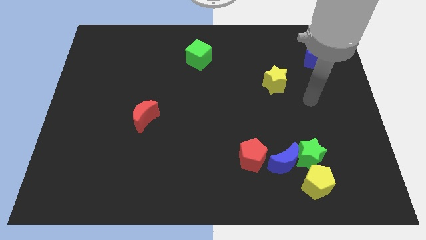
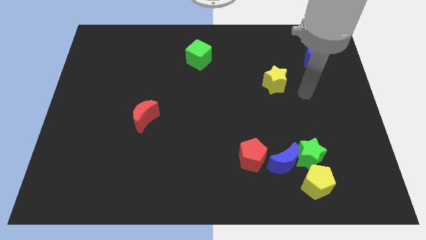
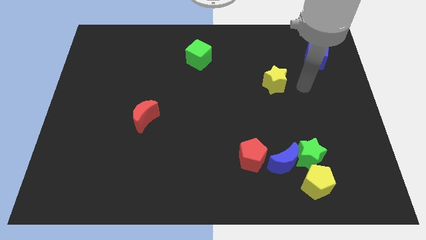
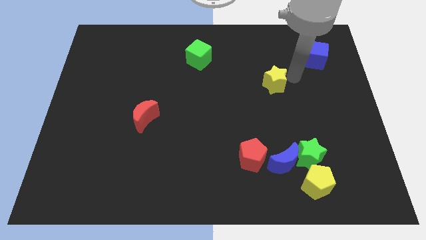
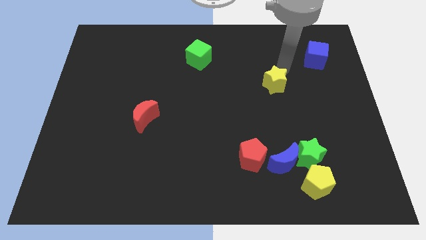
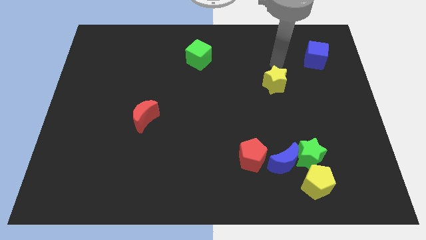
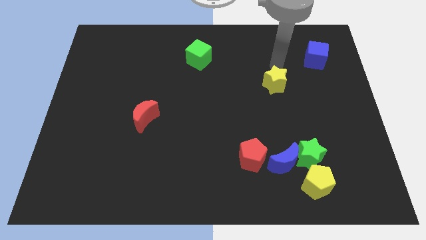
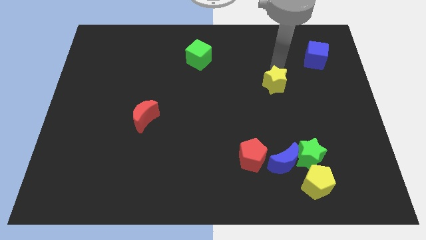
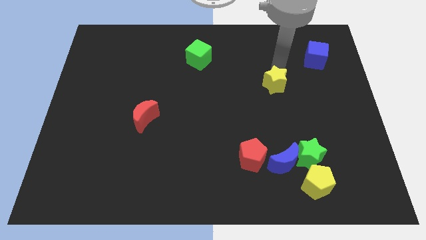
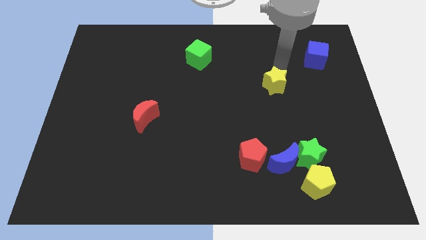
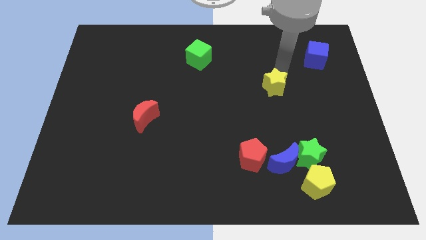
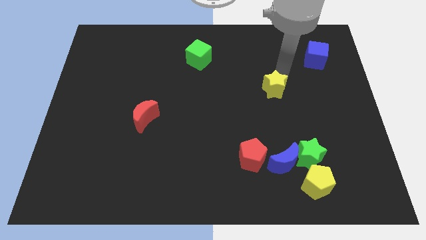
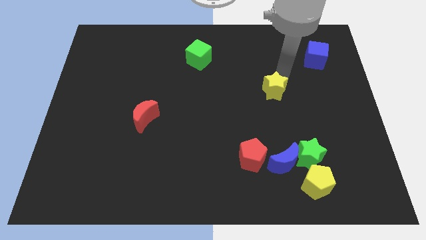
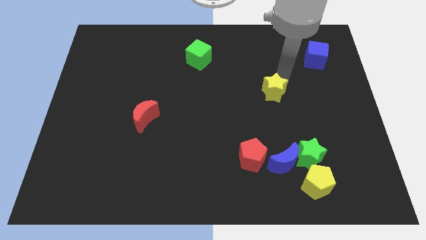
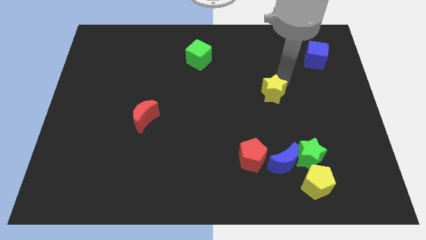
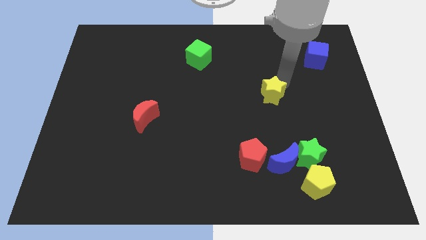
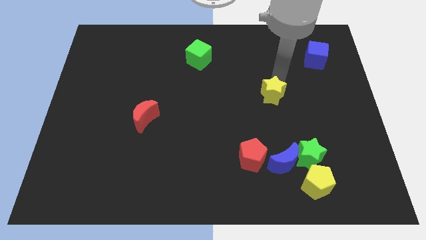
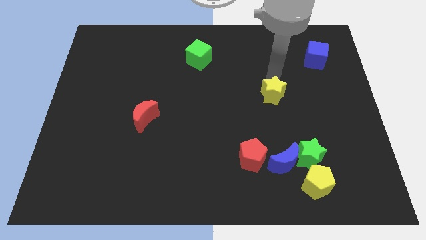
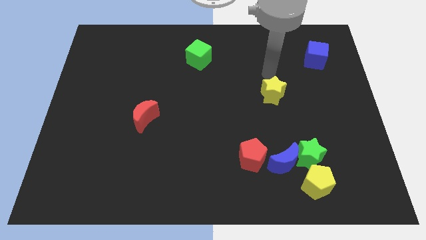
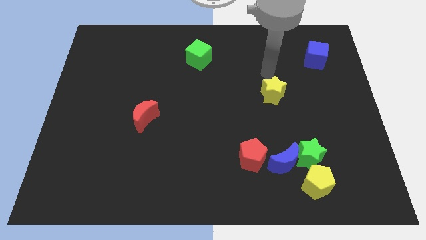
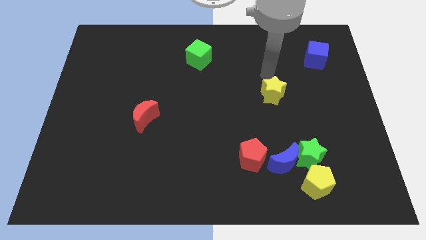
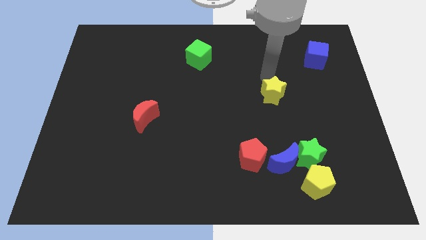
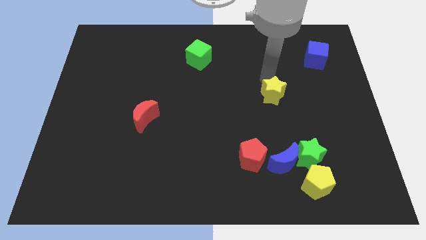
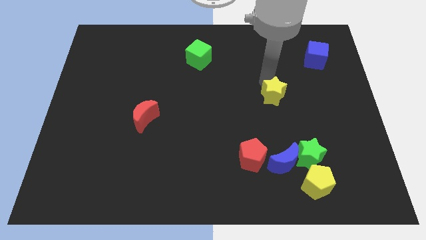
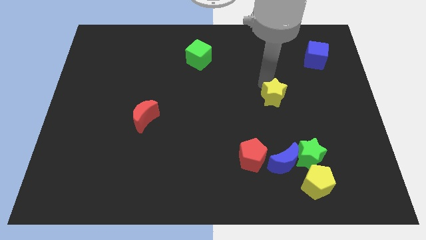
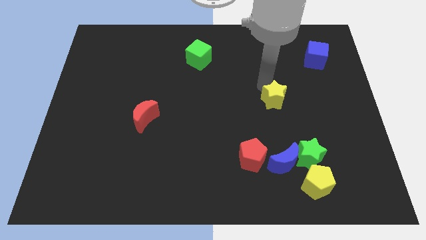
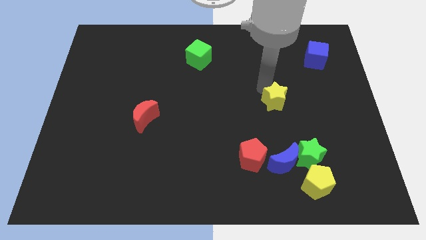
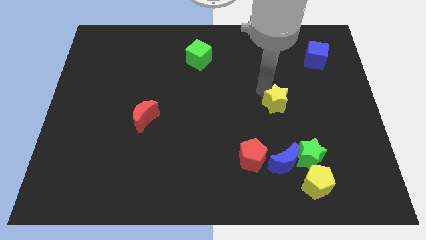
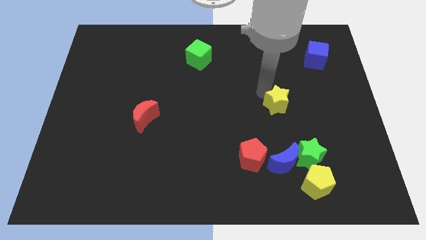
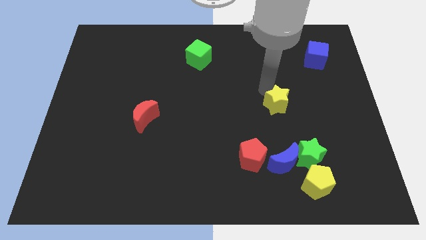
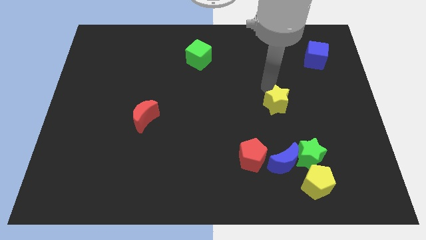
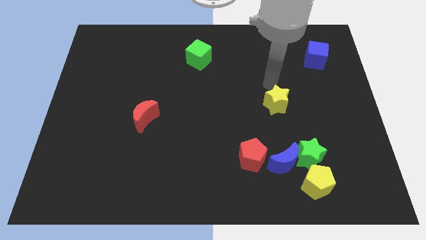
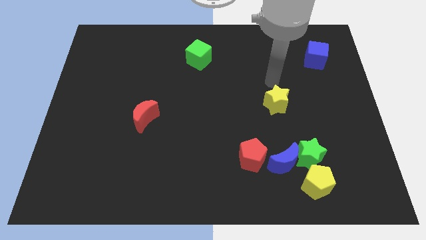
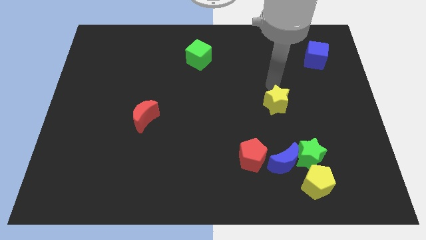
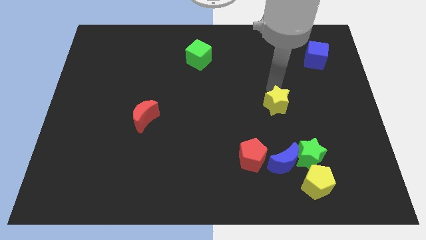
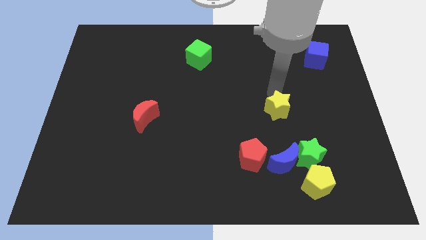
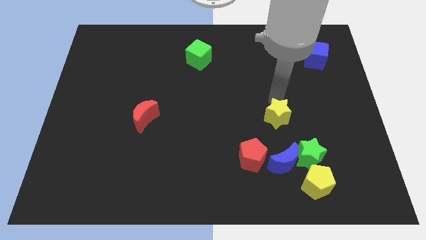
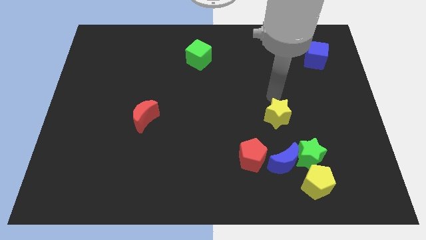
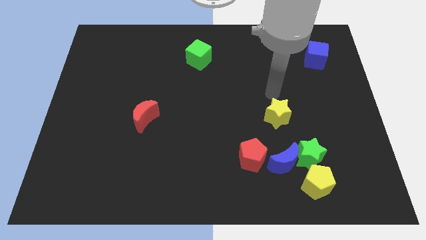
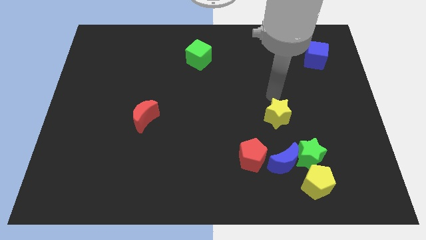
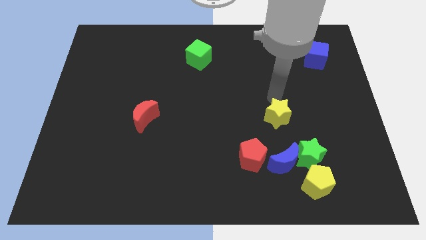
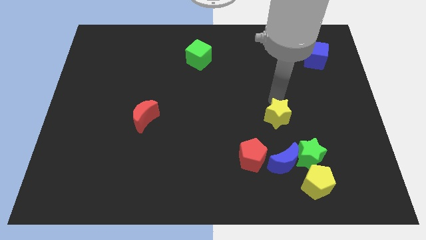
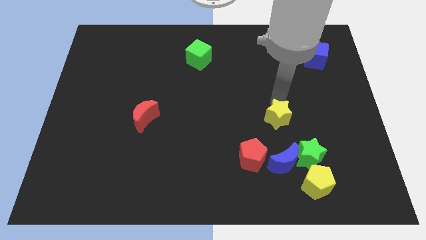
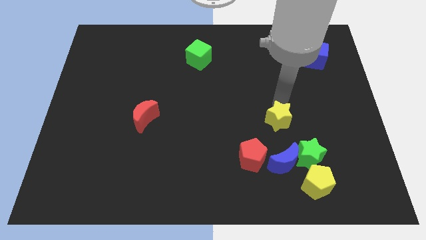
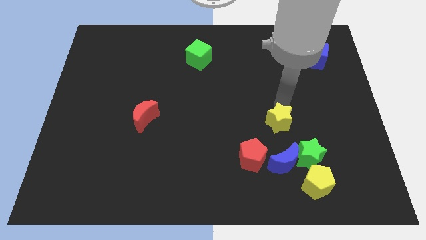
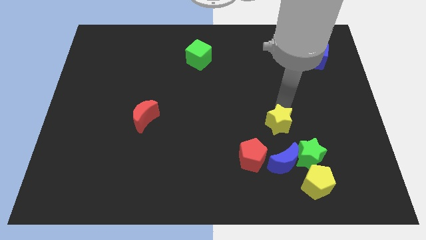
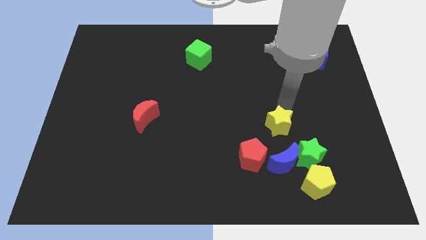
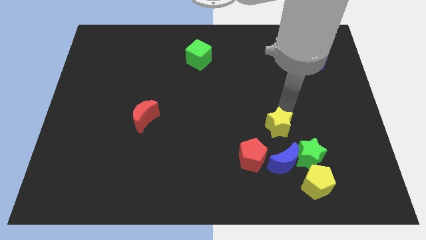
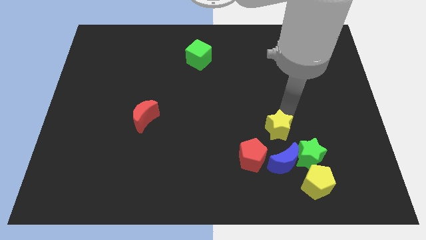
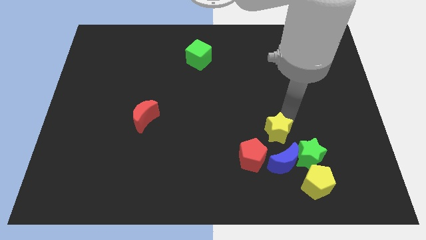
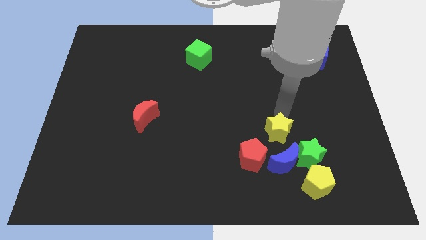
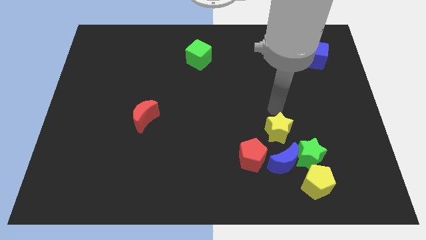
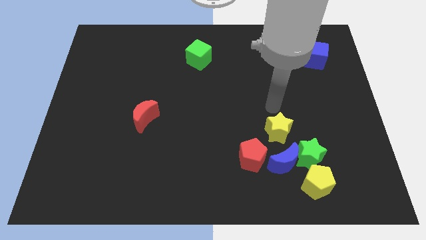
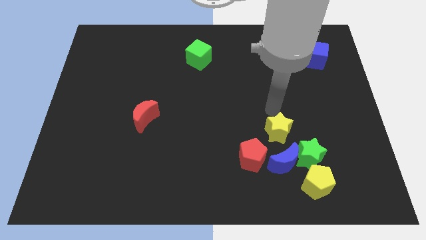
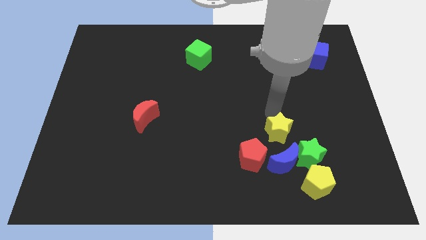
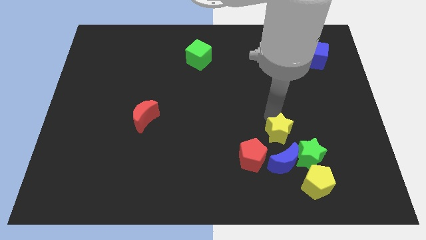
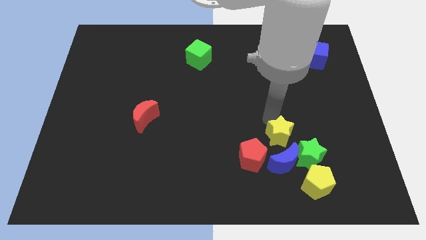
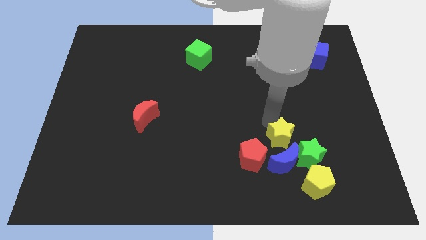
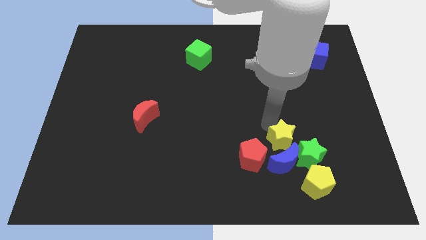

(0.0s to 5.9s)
push the yellow star next to the blue moon

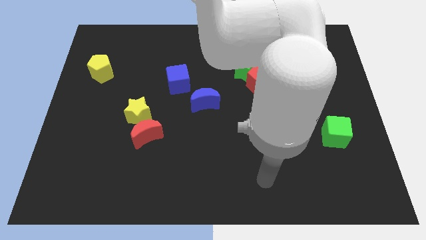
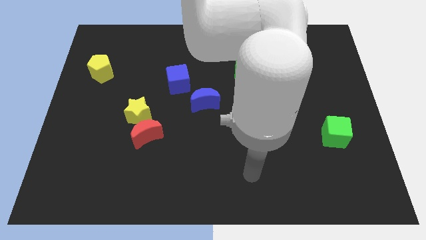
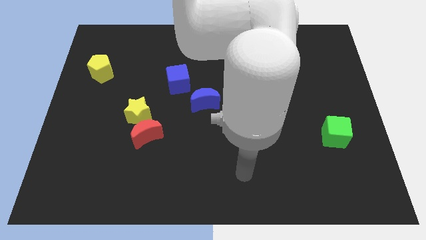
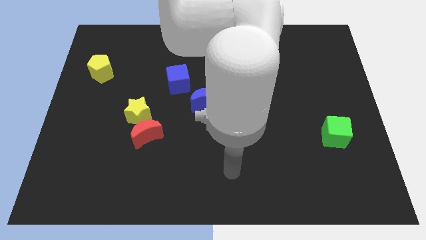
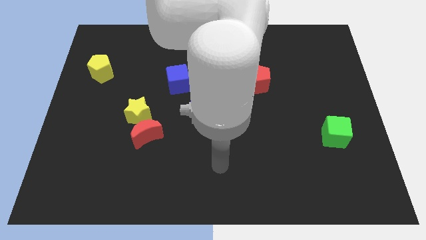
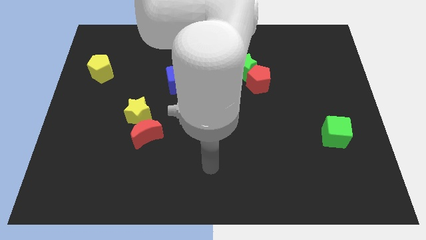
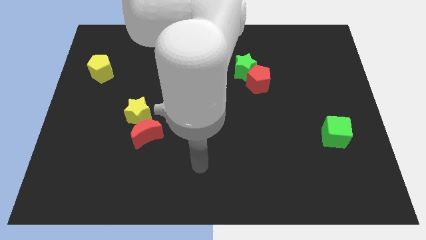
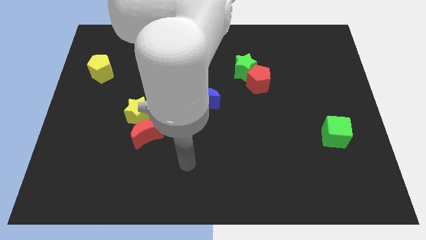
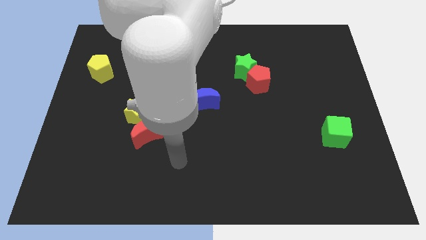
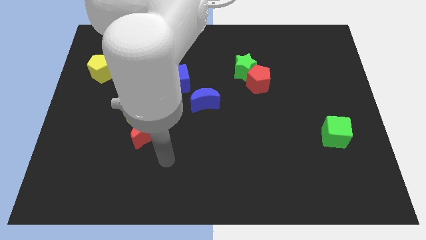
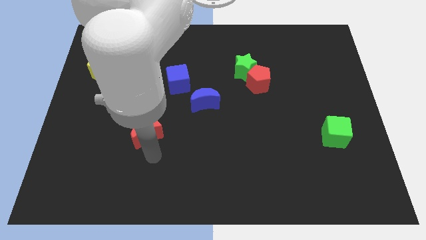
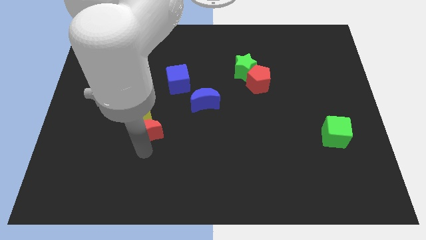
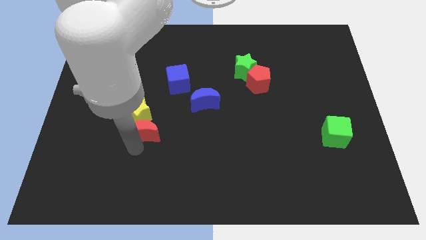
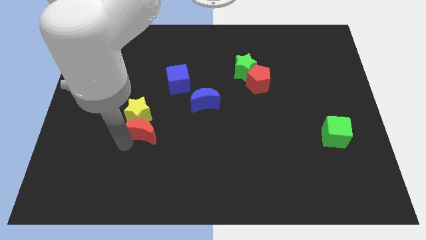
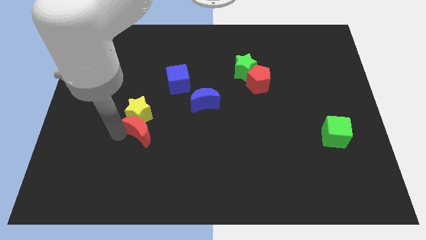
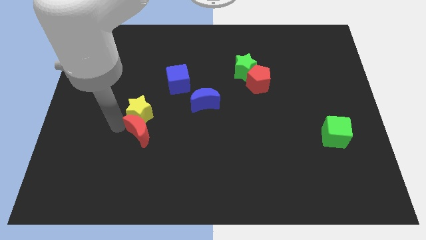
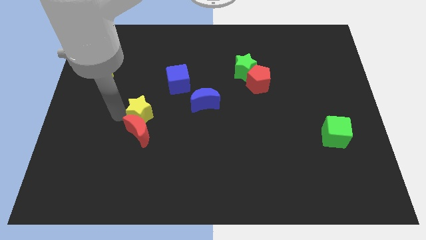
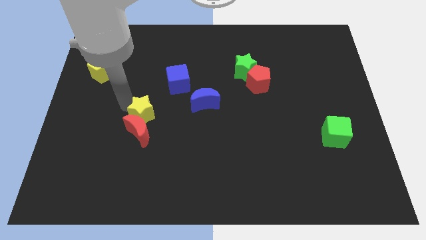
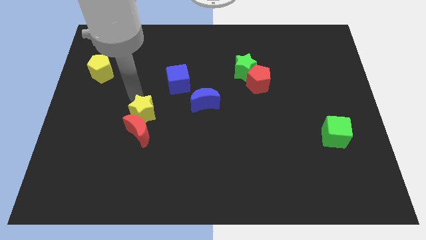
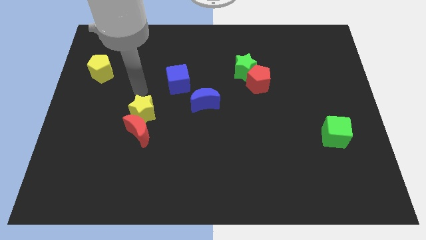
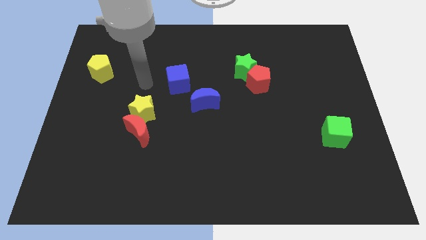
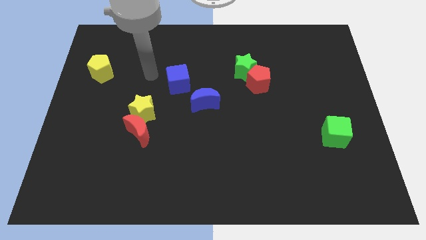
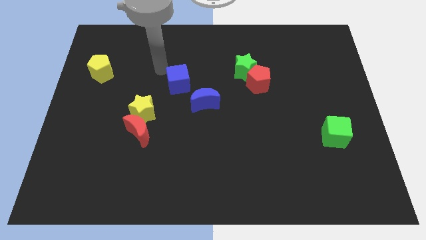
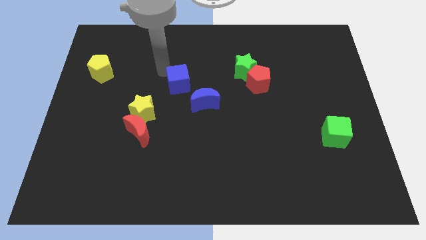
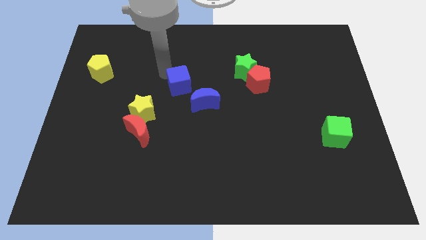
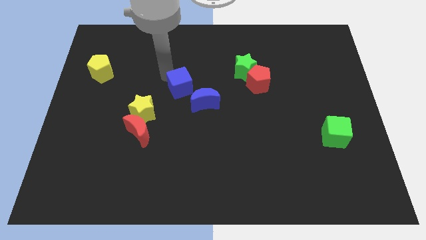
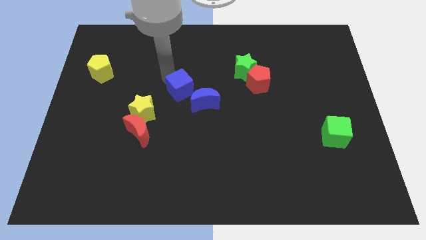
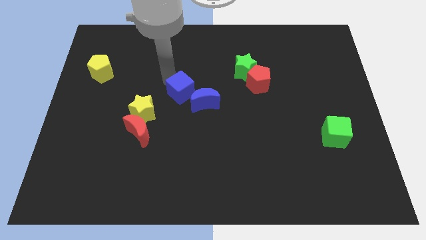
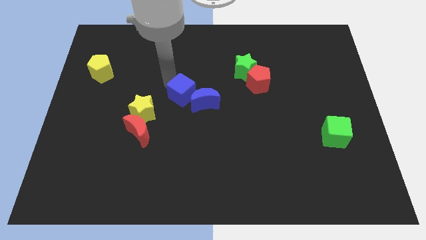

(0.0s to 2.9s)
push the blue cube towards the blue moon
